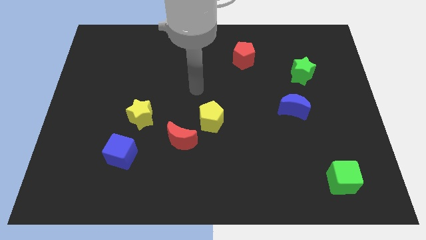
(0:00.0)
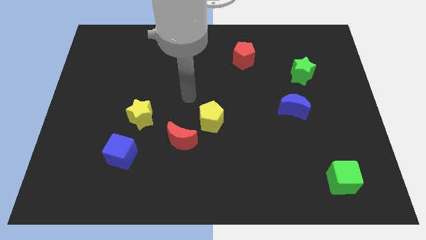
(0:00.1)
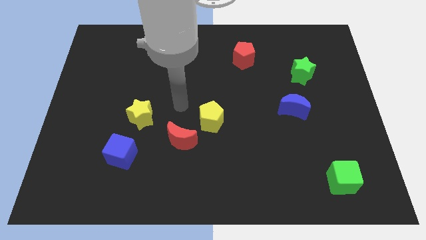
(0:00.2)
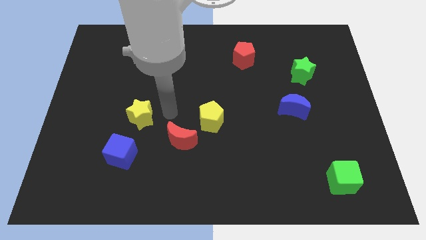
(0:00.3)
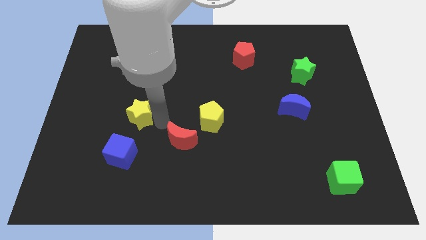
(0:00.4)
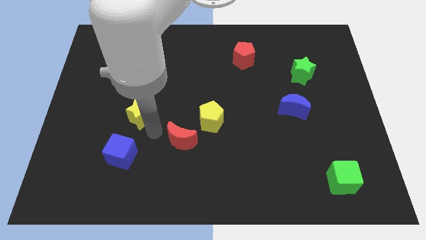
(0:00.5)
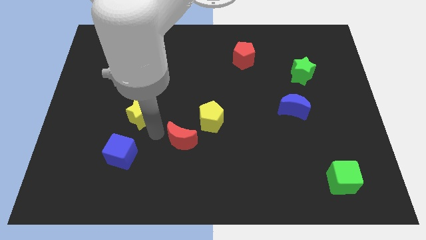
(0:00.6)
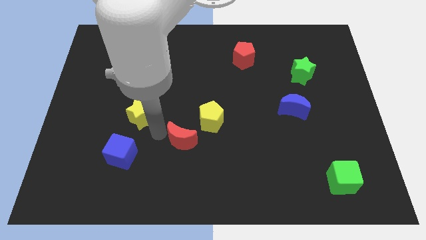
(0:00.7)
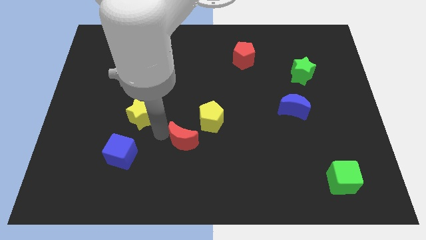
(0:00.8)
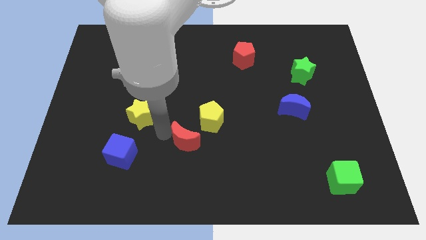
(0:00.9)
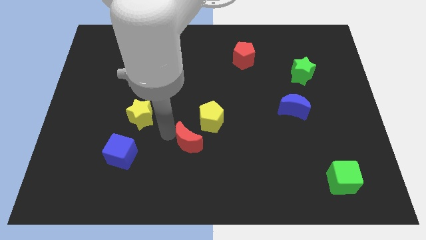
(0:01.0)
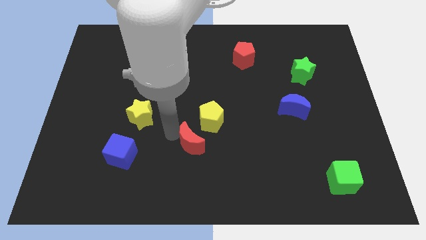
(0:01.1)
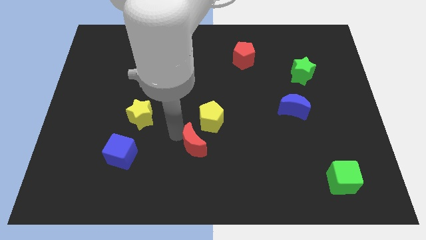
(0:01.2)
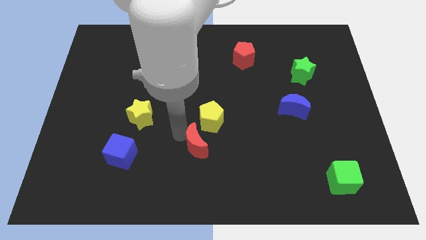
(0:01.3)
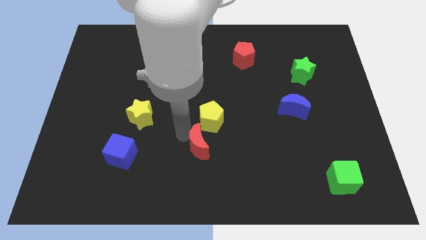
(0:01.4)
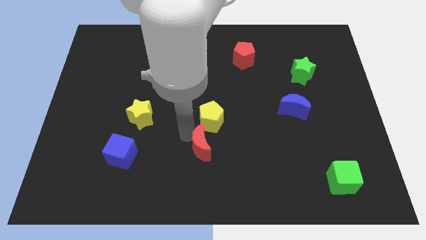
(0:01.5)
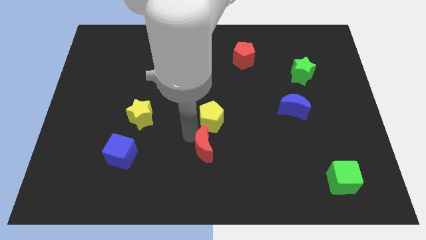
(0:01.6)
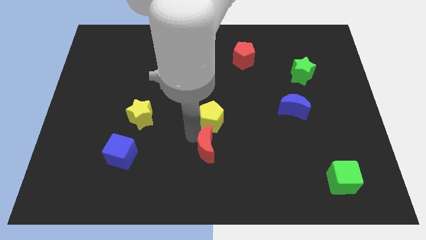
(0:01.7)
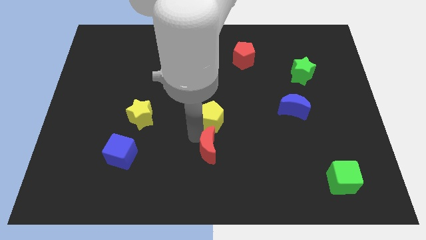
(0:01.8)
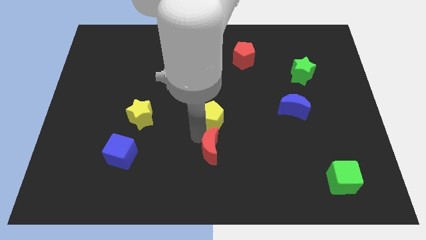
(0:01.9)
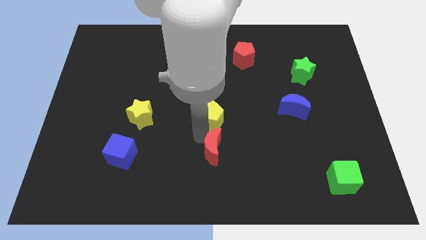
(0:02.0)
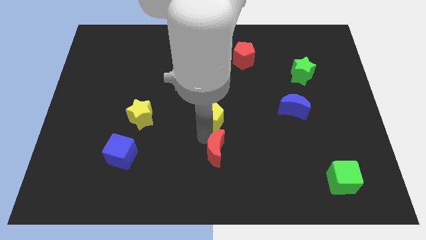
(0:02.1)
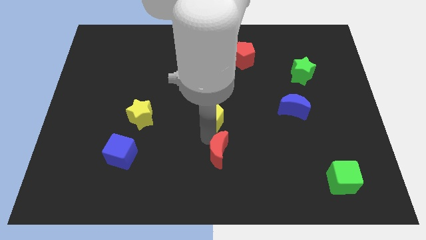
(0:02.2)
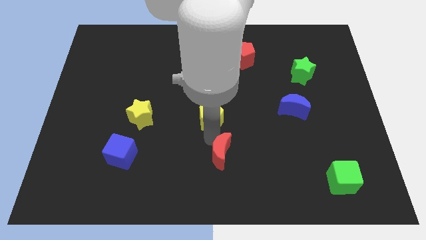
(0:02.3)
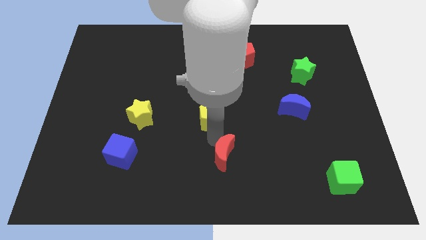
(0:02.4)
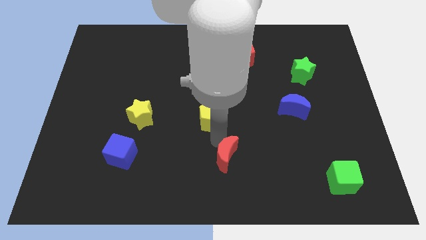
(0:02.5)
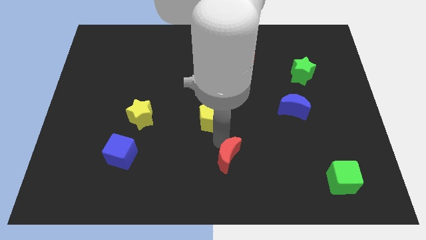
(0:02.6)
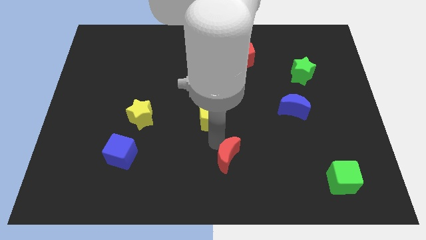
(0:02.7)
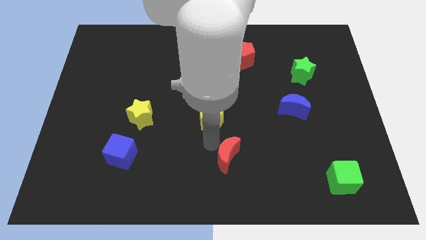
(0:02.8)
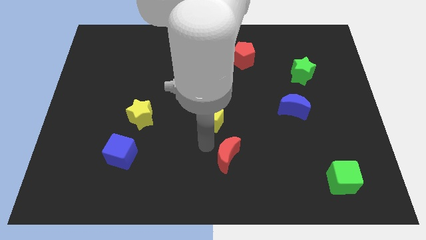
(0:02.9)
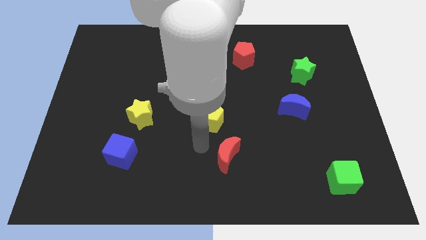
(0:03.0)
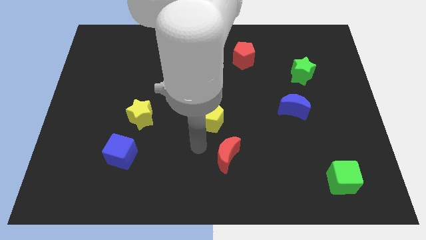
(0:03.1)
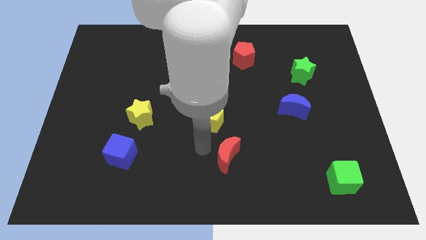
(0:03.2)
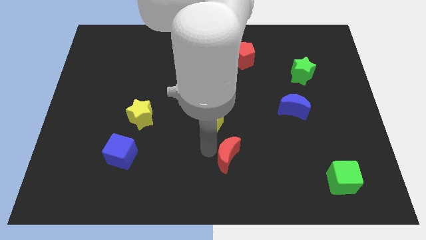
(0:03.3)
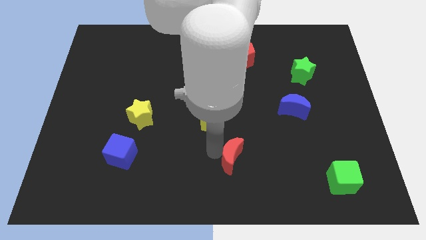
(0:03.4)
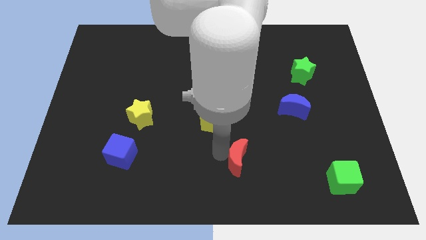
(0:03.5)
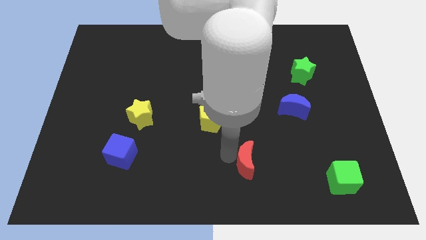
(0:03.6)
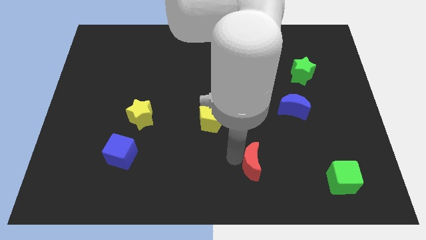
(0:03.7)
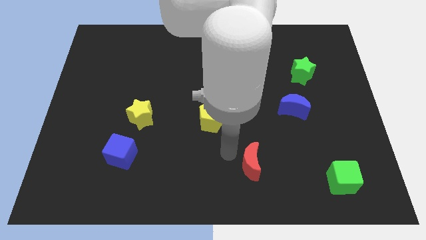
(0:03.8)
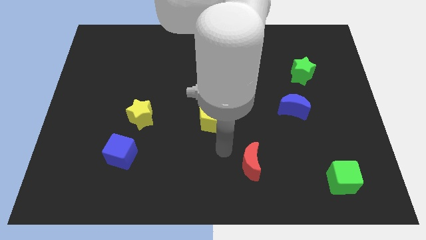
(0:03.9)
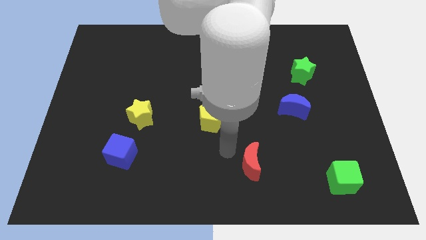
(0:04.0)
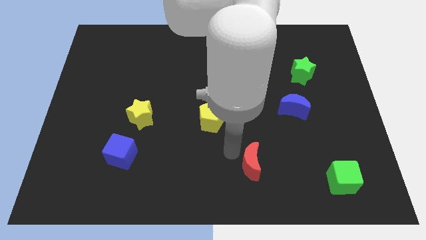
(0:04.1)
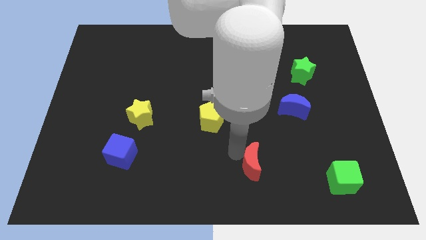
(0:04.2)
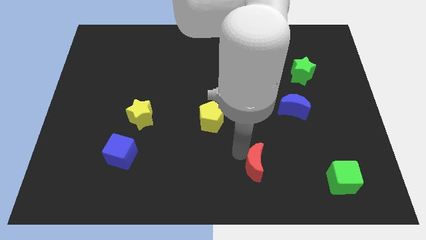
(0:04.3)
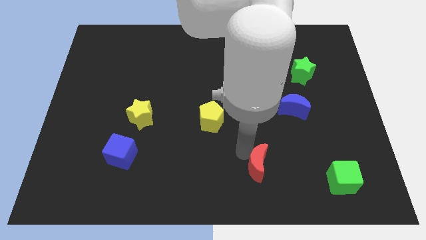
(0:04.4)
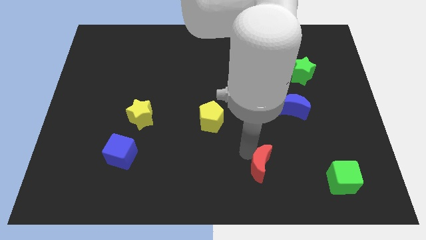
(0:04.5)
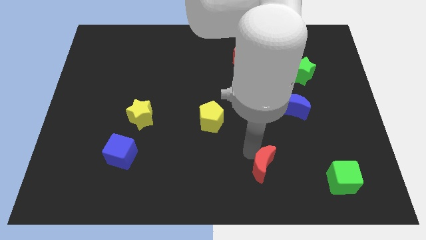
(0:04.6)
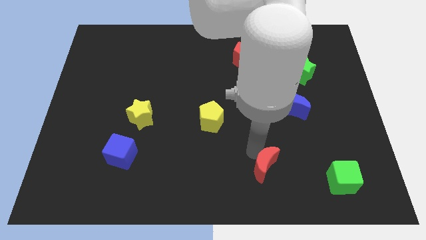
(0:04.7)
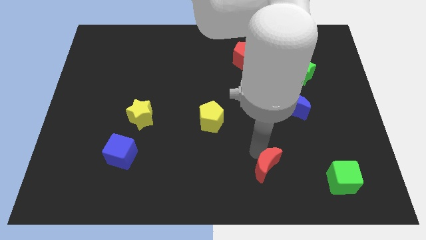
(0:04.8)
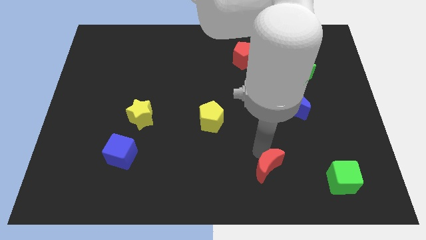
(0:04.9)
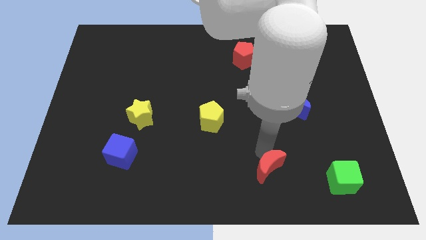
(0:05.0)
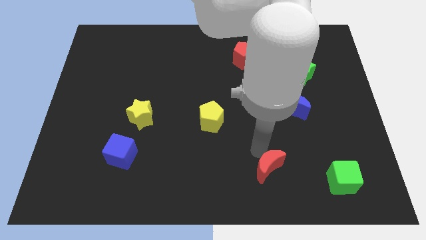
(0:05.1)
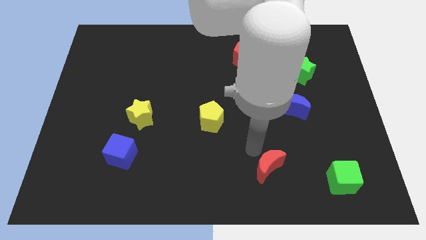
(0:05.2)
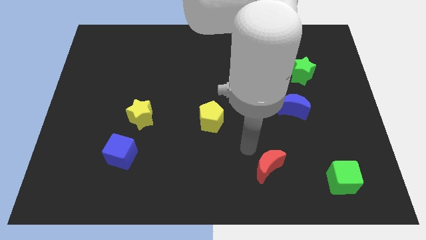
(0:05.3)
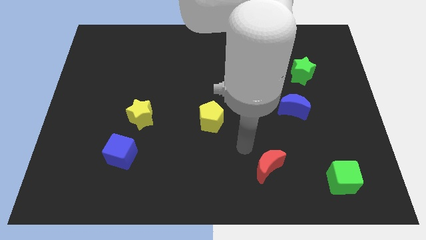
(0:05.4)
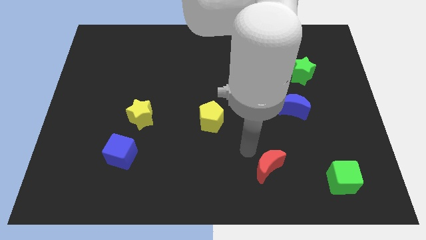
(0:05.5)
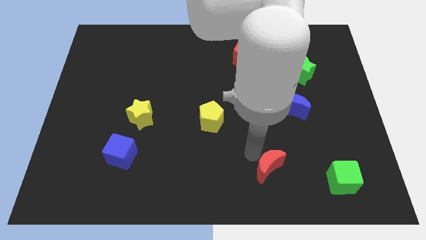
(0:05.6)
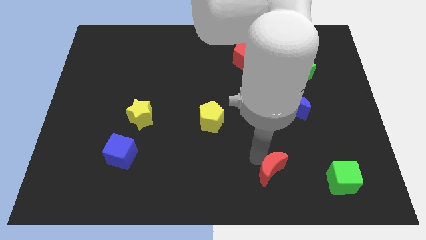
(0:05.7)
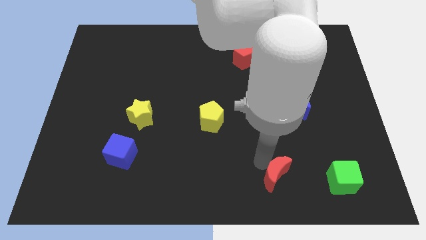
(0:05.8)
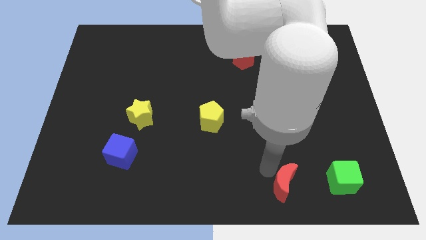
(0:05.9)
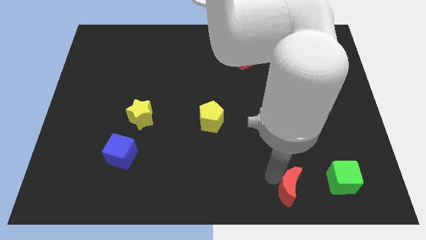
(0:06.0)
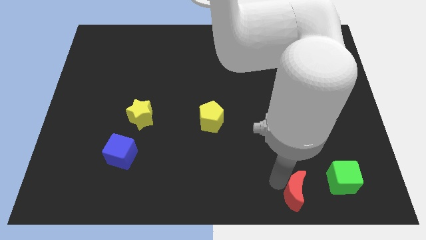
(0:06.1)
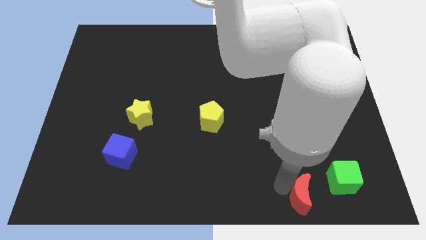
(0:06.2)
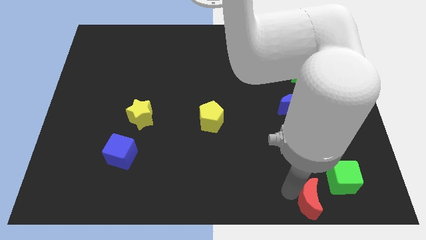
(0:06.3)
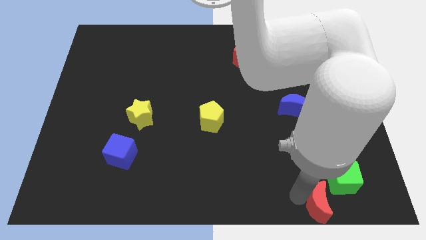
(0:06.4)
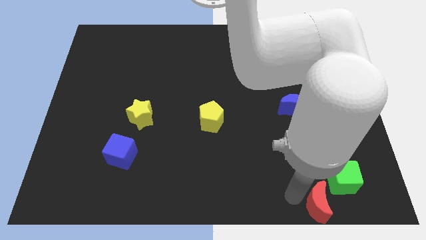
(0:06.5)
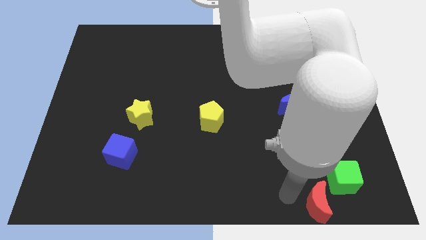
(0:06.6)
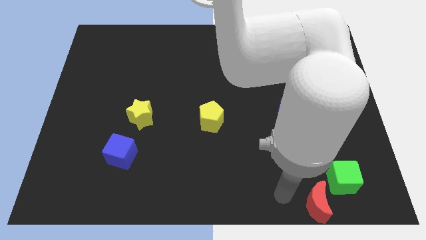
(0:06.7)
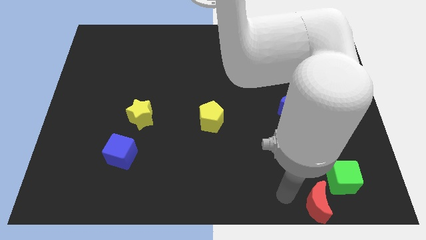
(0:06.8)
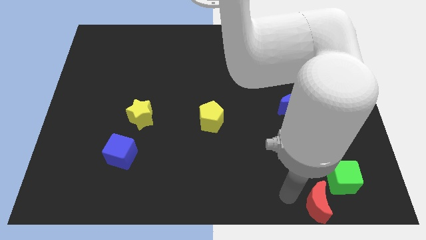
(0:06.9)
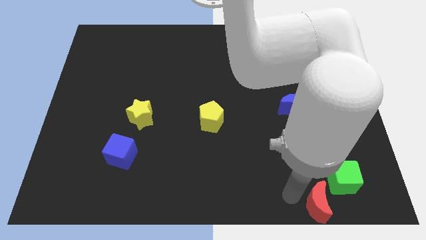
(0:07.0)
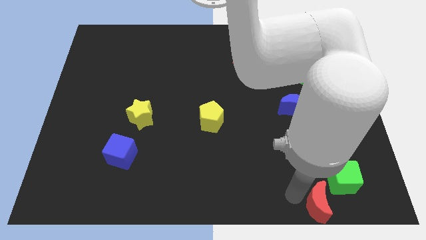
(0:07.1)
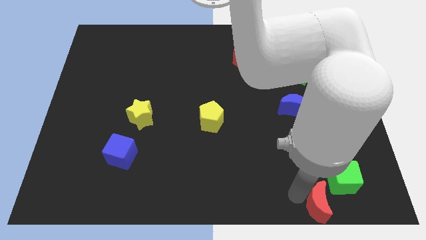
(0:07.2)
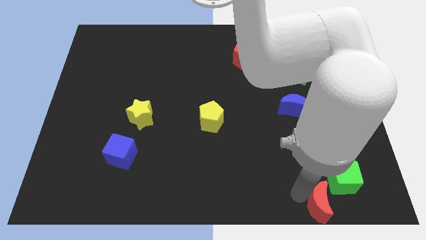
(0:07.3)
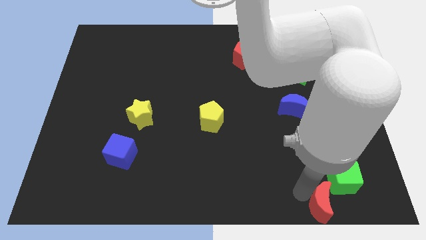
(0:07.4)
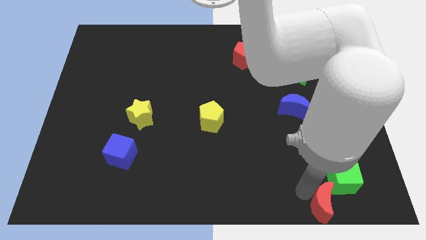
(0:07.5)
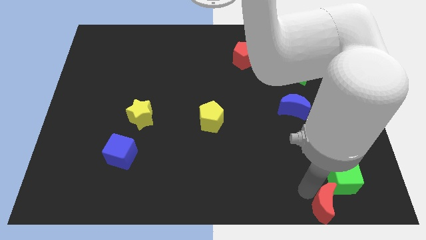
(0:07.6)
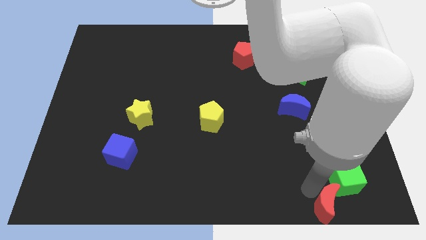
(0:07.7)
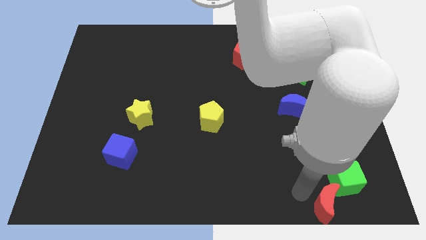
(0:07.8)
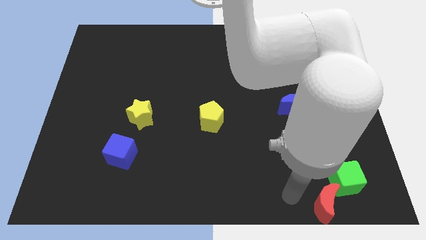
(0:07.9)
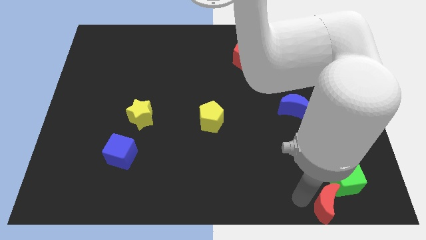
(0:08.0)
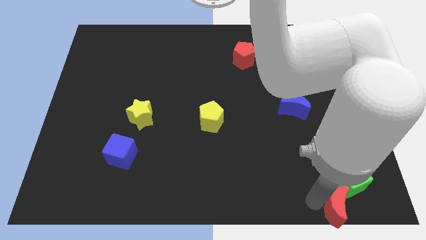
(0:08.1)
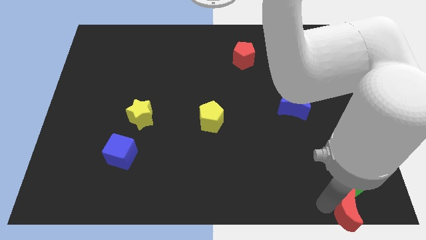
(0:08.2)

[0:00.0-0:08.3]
move the red moon to the lower right corner
